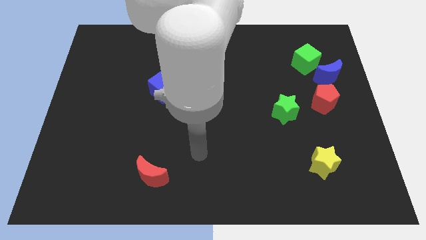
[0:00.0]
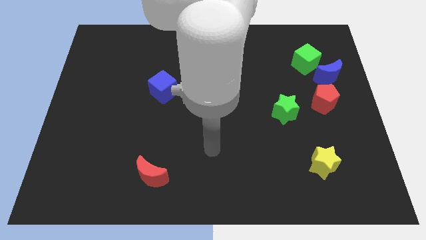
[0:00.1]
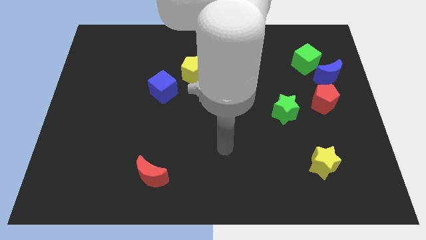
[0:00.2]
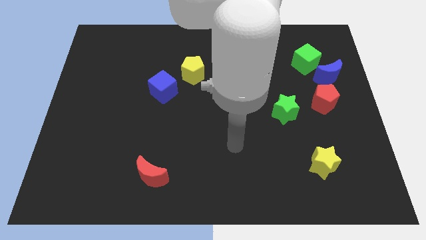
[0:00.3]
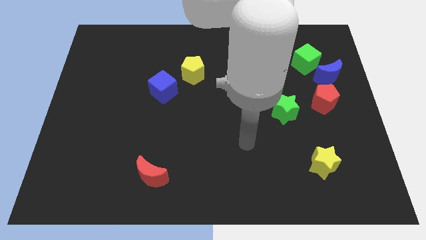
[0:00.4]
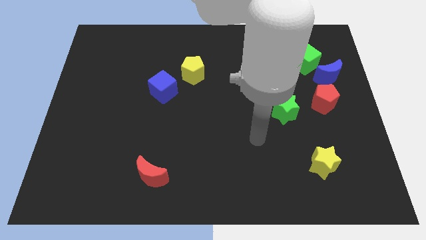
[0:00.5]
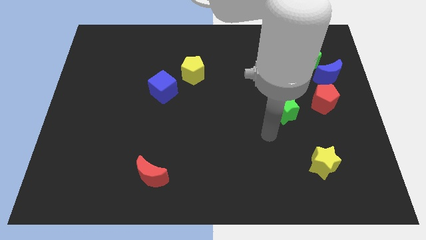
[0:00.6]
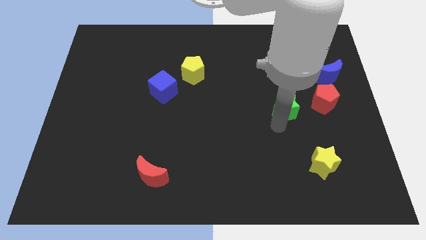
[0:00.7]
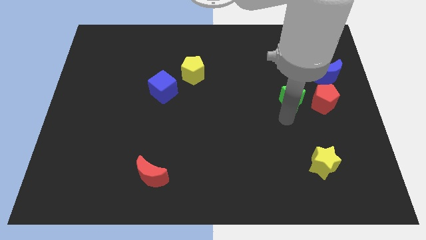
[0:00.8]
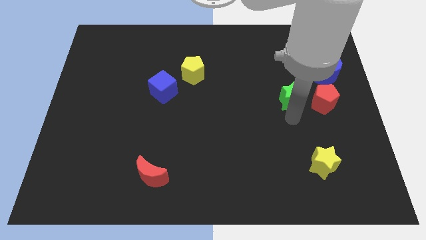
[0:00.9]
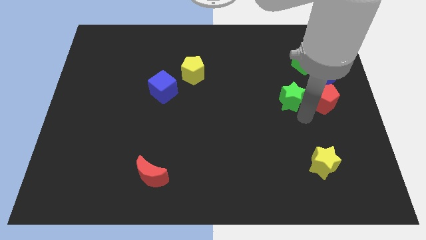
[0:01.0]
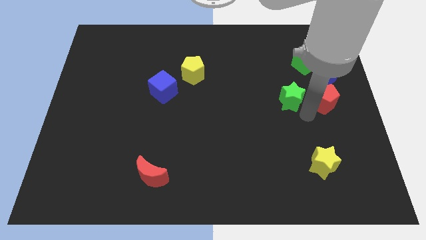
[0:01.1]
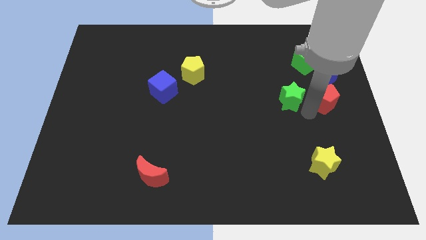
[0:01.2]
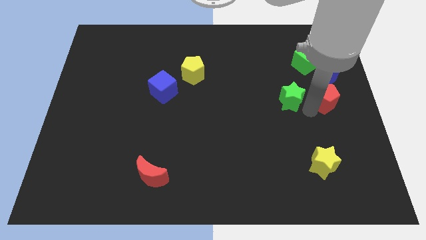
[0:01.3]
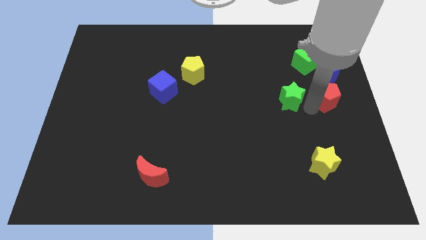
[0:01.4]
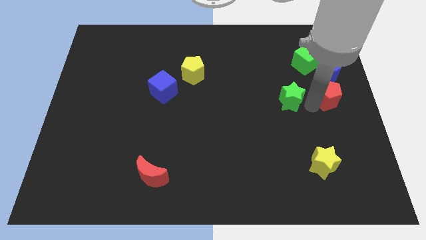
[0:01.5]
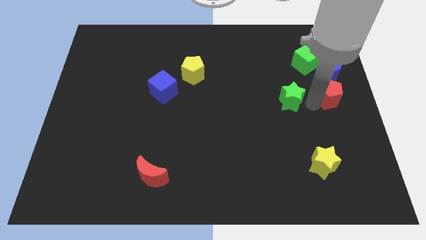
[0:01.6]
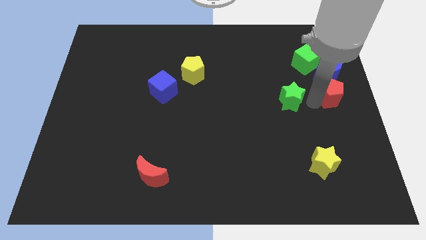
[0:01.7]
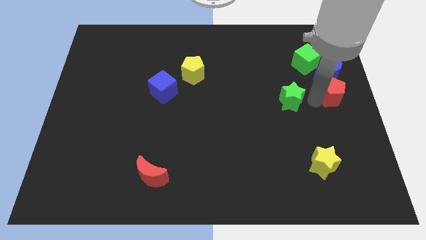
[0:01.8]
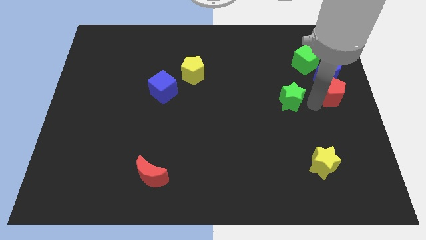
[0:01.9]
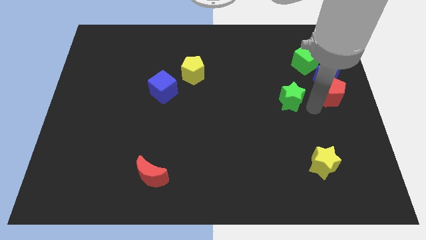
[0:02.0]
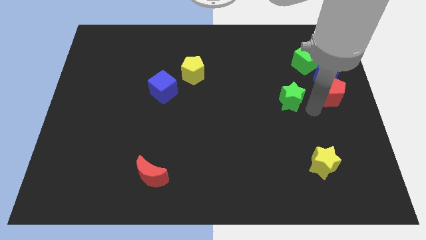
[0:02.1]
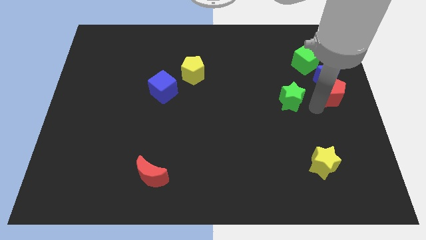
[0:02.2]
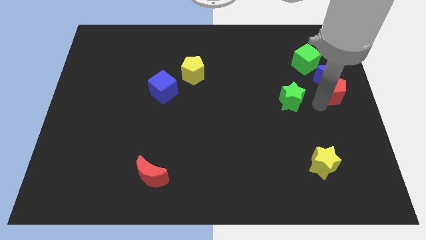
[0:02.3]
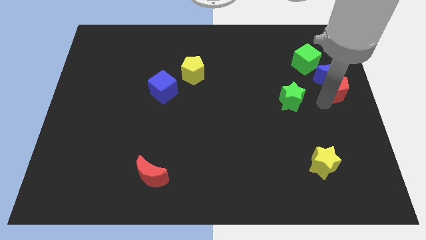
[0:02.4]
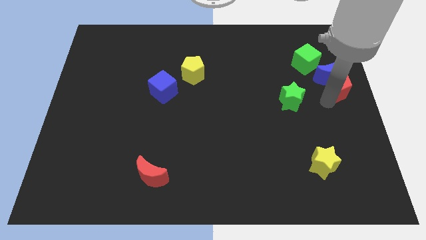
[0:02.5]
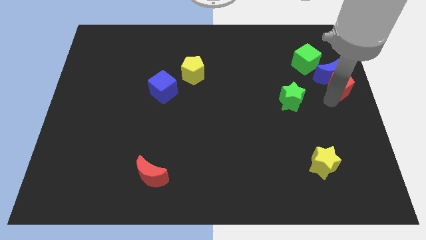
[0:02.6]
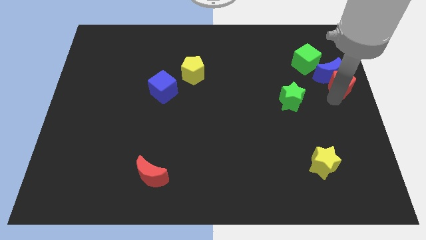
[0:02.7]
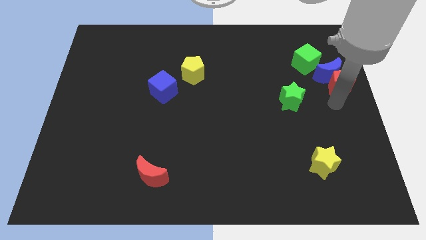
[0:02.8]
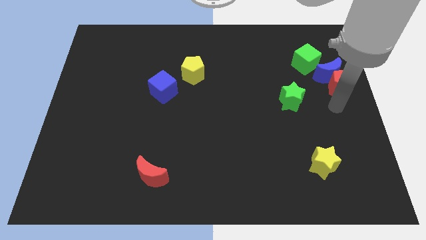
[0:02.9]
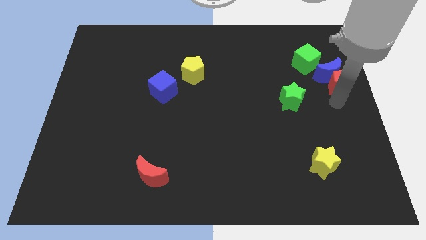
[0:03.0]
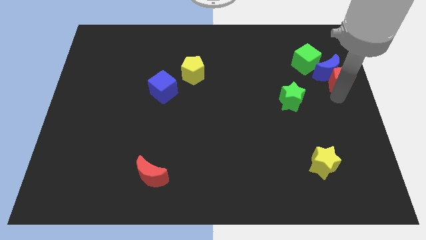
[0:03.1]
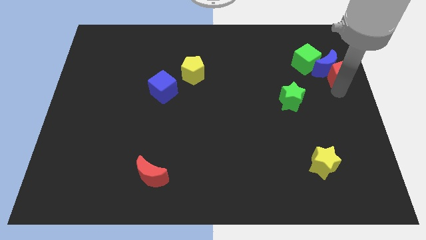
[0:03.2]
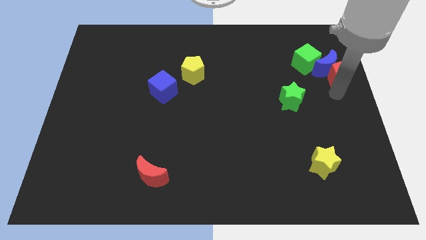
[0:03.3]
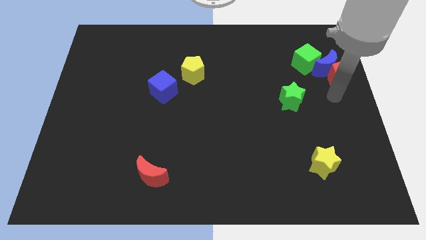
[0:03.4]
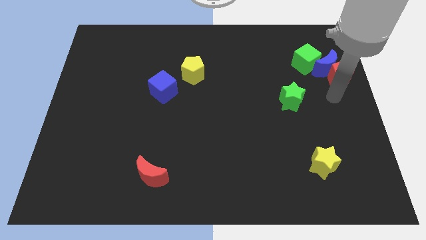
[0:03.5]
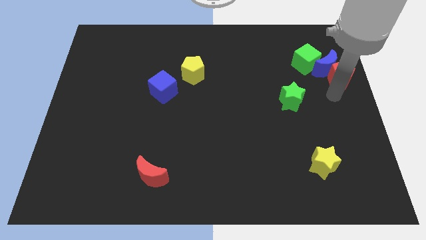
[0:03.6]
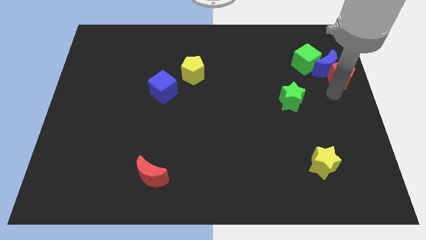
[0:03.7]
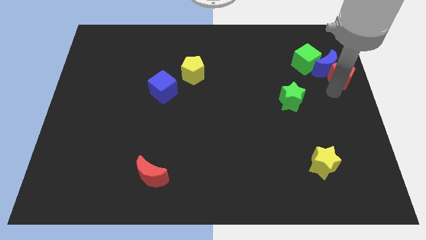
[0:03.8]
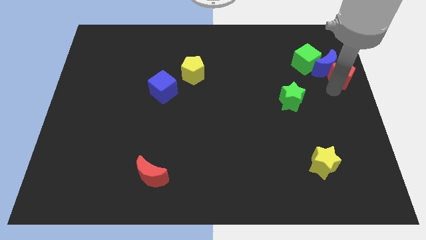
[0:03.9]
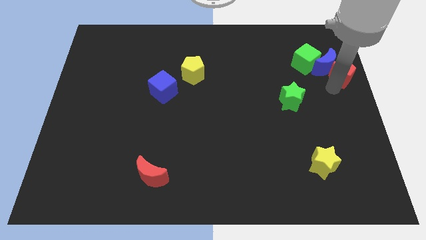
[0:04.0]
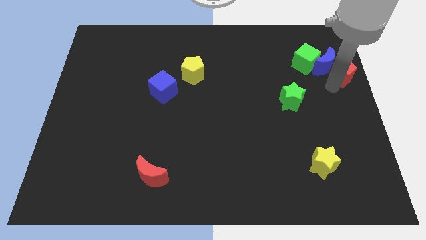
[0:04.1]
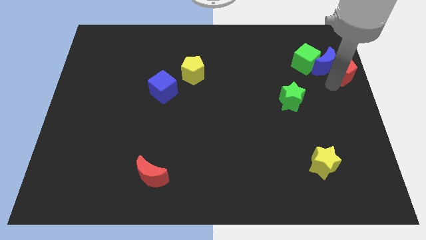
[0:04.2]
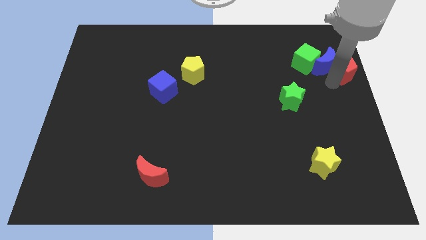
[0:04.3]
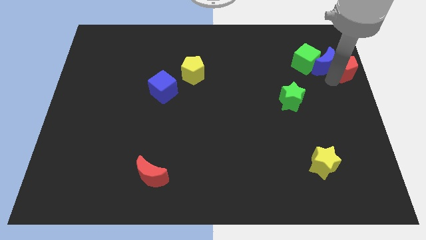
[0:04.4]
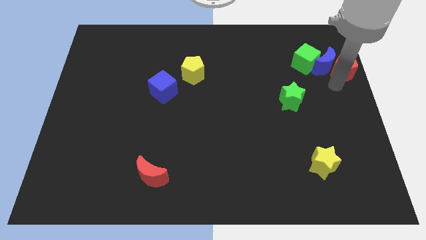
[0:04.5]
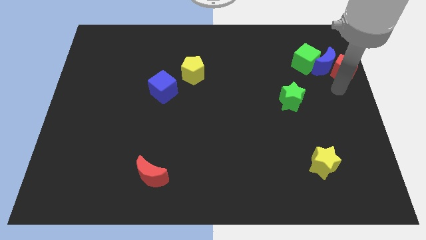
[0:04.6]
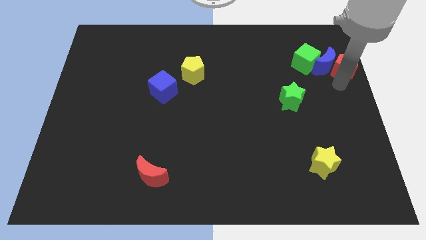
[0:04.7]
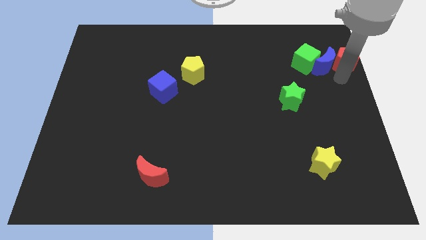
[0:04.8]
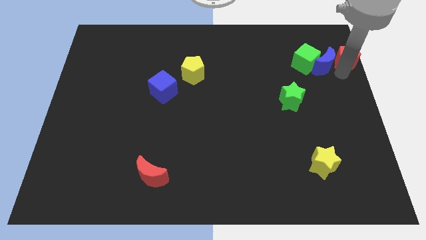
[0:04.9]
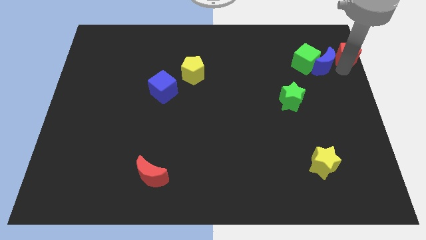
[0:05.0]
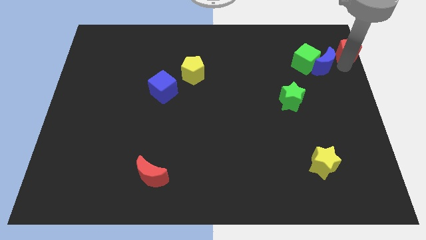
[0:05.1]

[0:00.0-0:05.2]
put the red pentagon to the top right corner

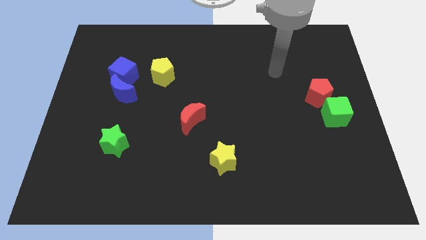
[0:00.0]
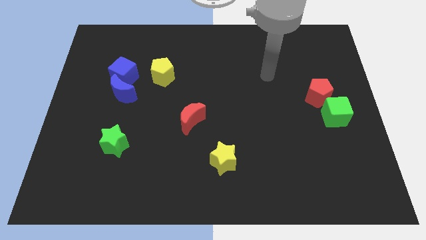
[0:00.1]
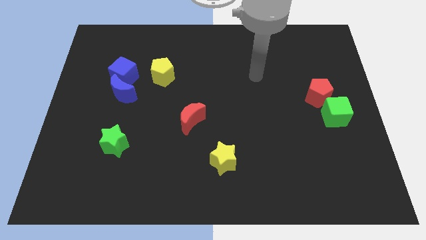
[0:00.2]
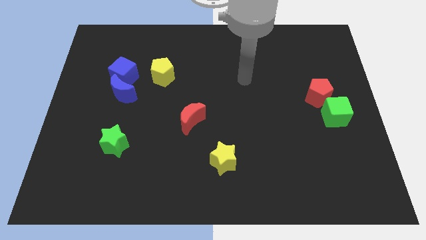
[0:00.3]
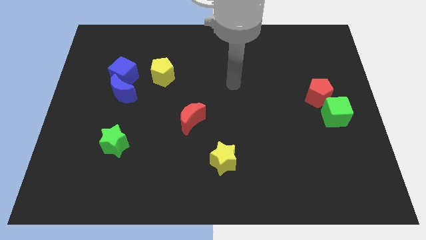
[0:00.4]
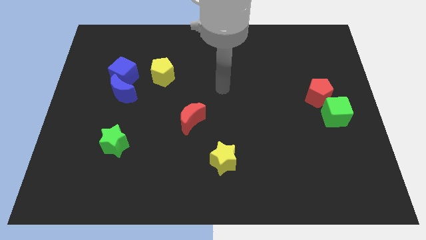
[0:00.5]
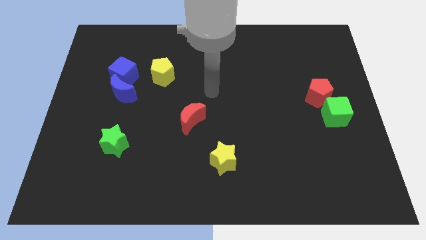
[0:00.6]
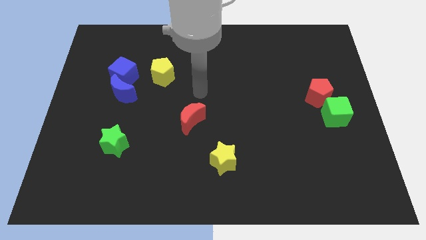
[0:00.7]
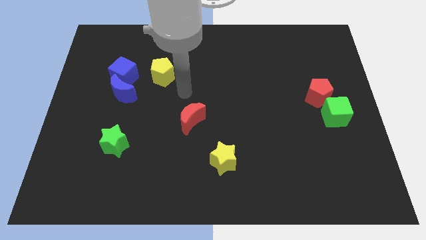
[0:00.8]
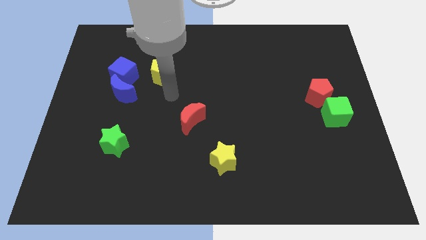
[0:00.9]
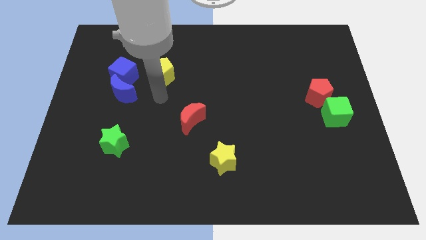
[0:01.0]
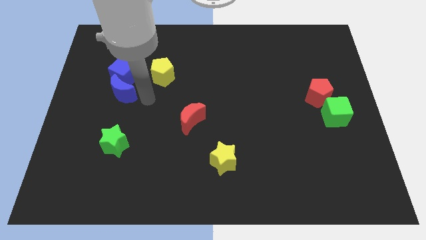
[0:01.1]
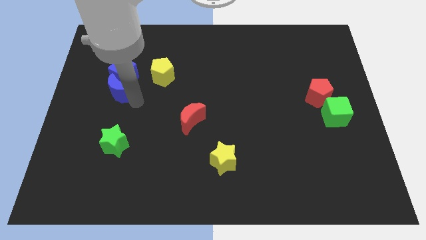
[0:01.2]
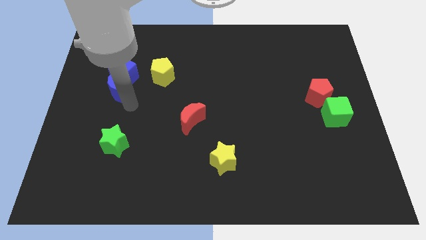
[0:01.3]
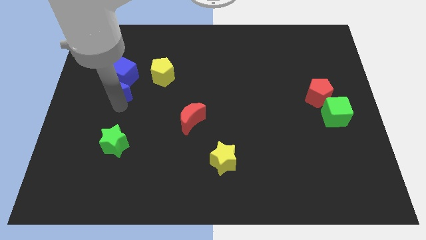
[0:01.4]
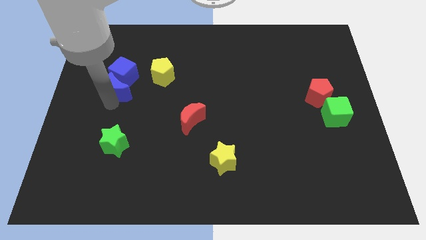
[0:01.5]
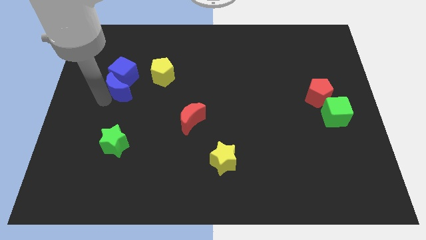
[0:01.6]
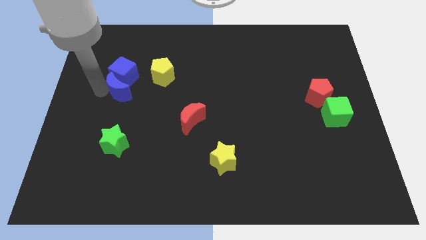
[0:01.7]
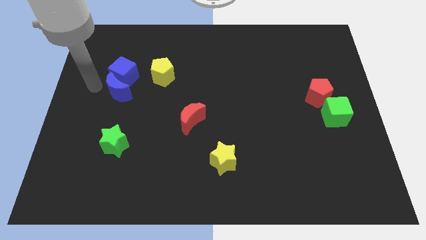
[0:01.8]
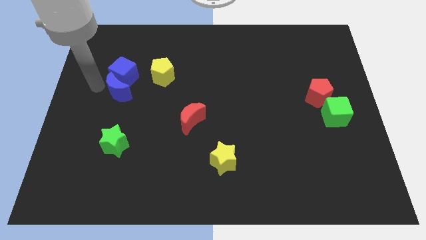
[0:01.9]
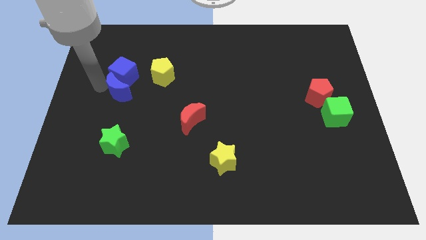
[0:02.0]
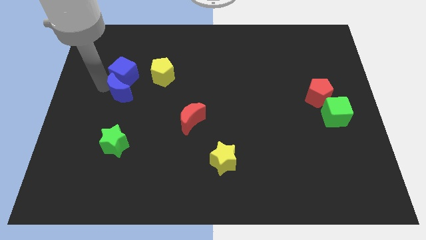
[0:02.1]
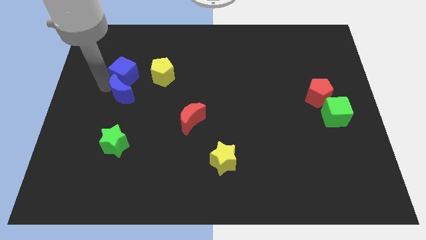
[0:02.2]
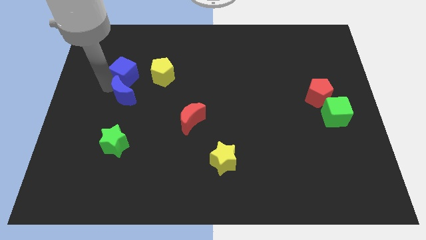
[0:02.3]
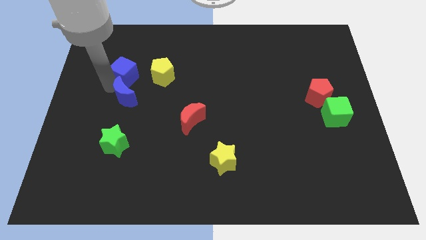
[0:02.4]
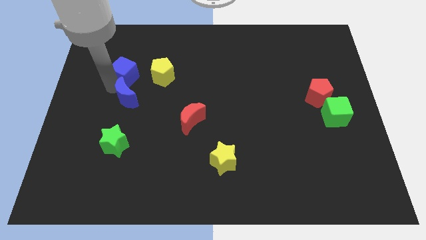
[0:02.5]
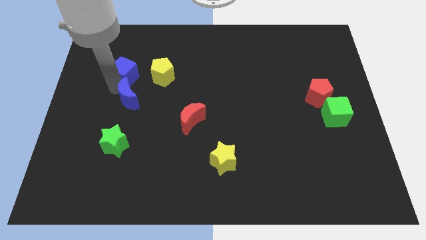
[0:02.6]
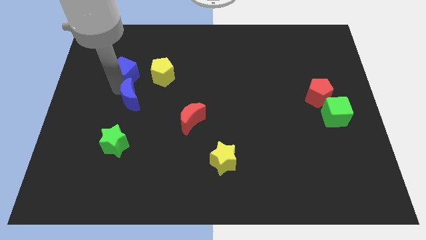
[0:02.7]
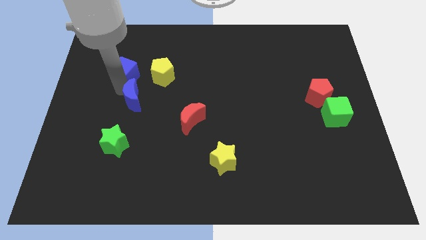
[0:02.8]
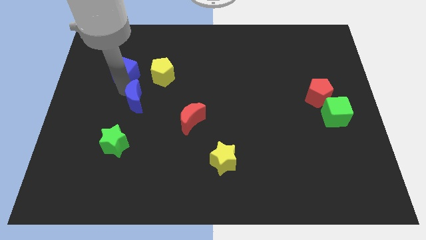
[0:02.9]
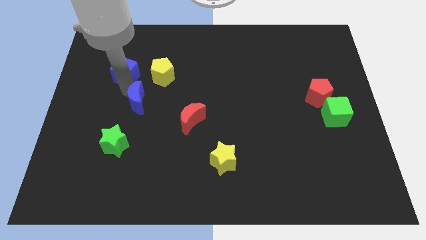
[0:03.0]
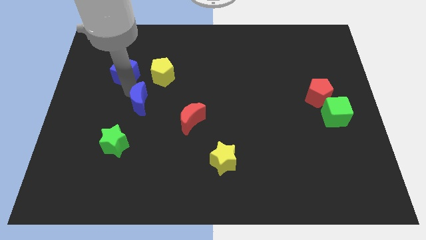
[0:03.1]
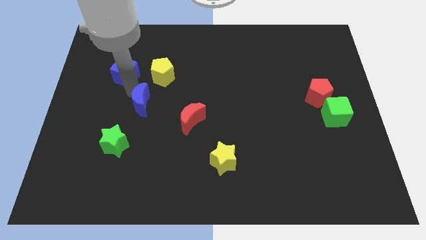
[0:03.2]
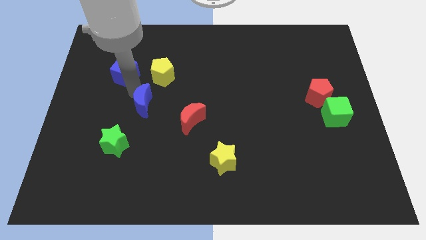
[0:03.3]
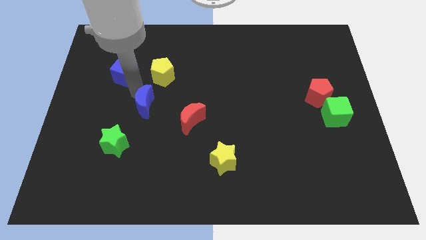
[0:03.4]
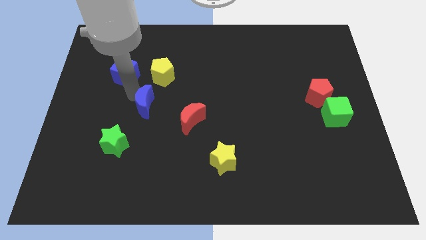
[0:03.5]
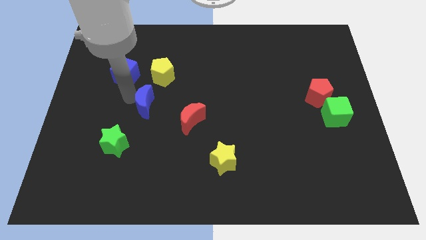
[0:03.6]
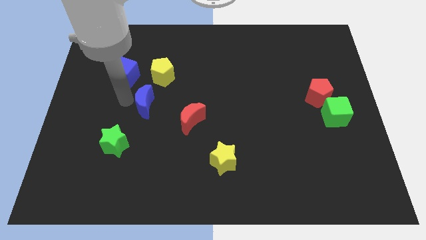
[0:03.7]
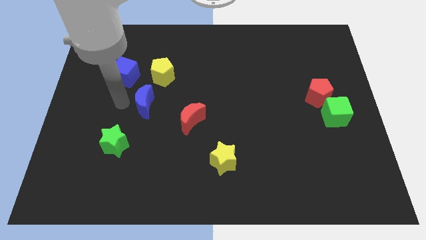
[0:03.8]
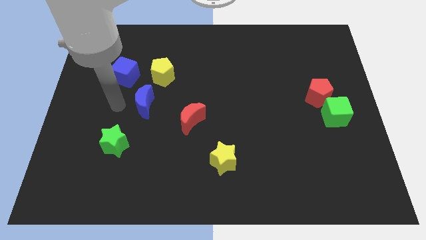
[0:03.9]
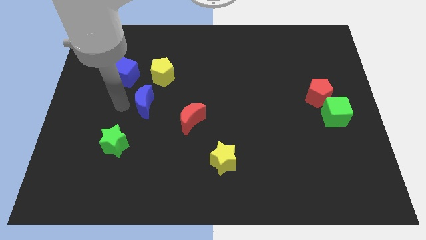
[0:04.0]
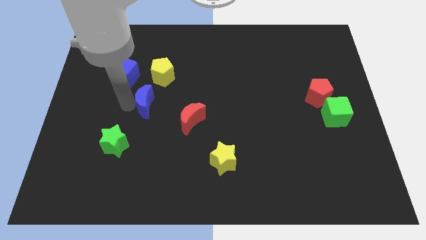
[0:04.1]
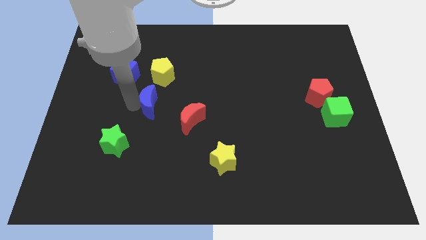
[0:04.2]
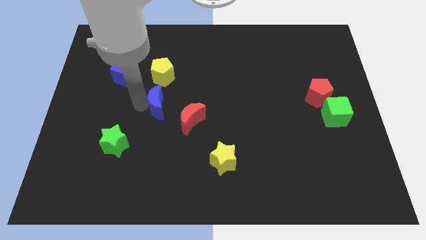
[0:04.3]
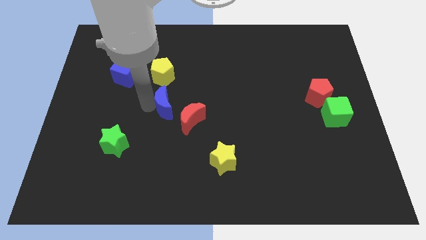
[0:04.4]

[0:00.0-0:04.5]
push the blue moon to the center
